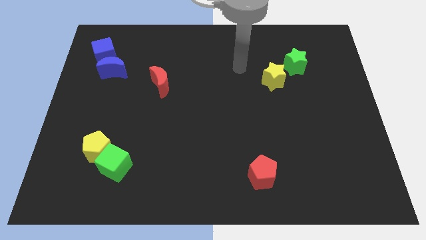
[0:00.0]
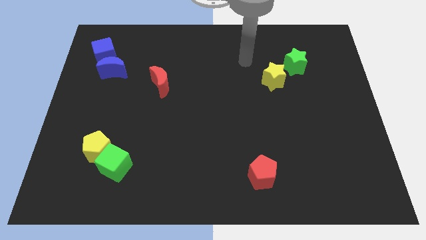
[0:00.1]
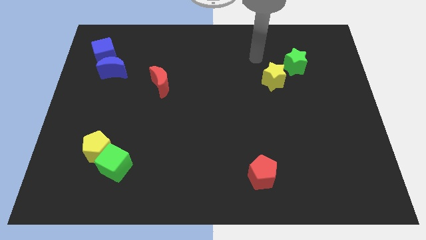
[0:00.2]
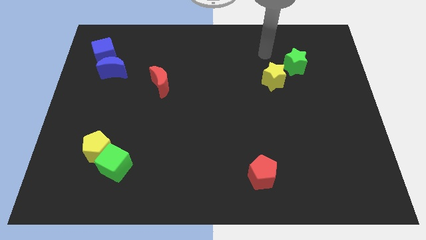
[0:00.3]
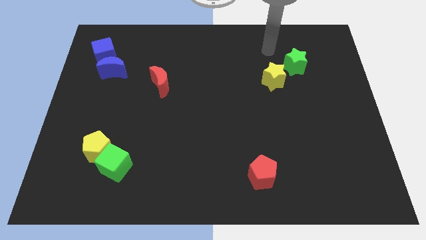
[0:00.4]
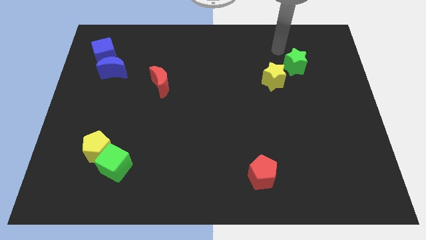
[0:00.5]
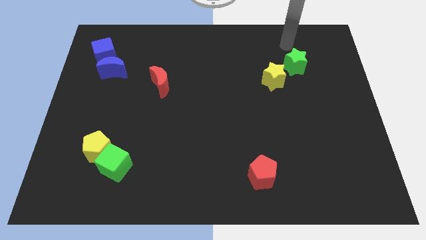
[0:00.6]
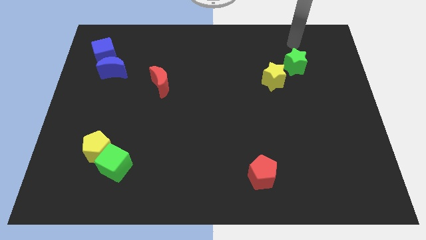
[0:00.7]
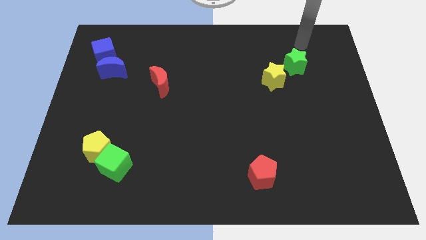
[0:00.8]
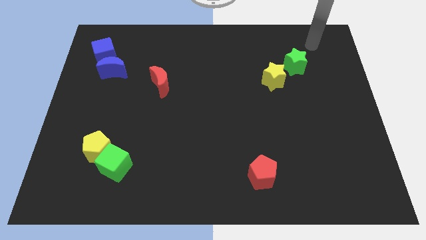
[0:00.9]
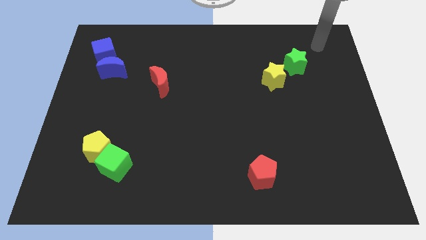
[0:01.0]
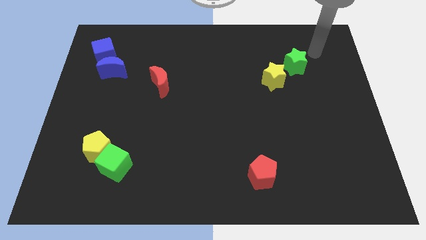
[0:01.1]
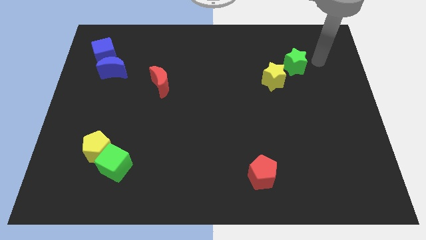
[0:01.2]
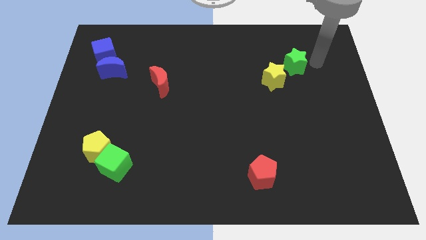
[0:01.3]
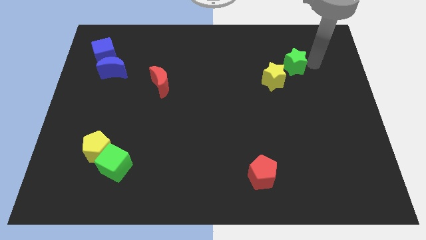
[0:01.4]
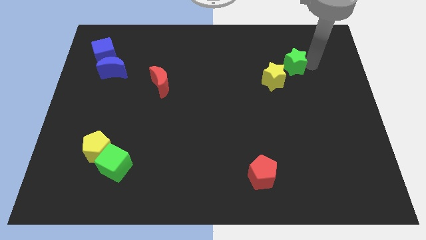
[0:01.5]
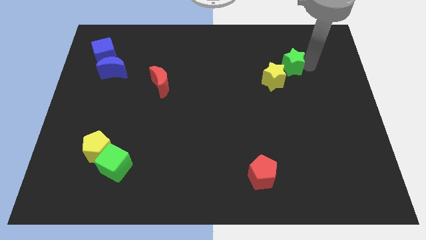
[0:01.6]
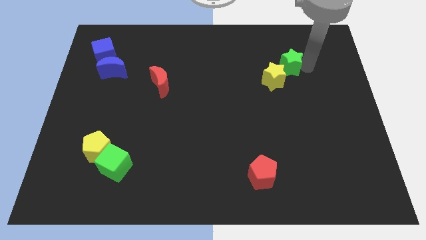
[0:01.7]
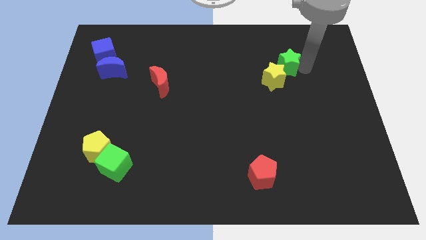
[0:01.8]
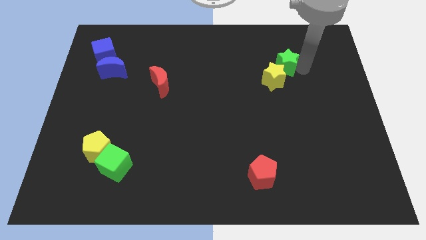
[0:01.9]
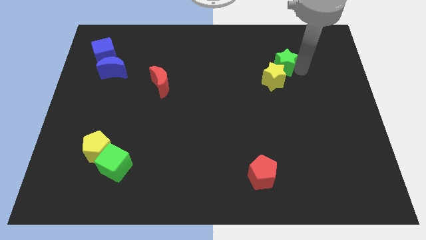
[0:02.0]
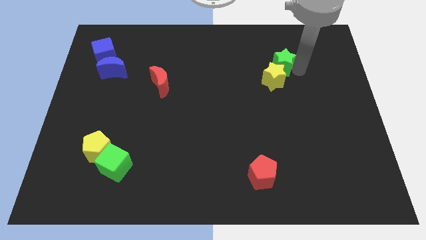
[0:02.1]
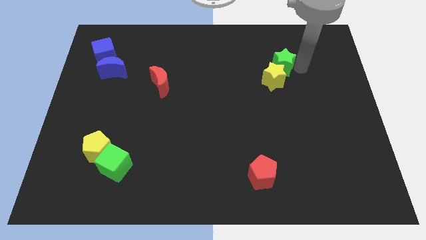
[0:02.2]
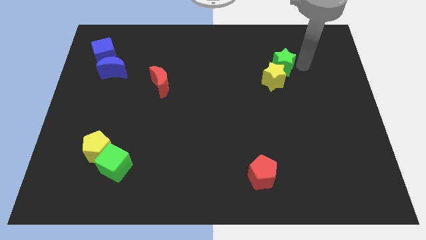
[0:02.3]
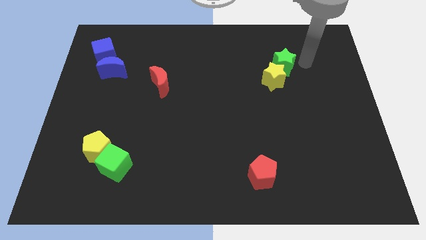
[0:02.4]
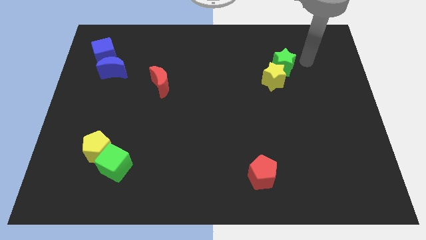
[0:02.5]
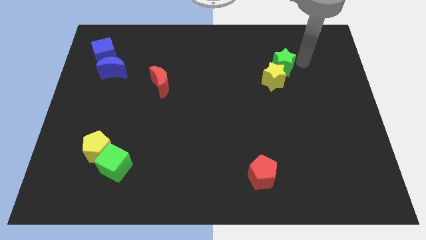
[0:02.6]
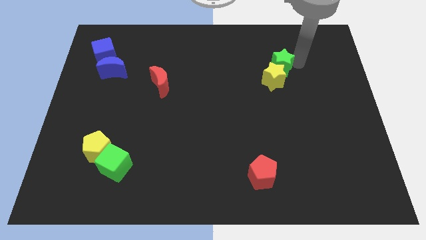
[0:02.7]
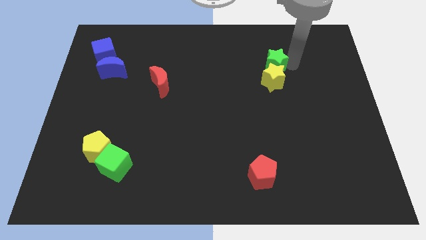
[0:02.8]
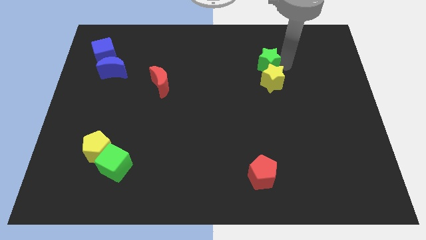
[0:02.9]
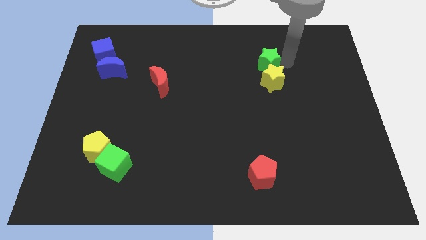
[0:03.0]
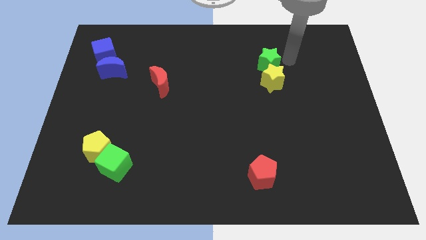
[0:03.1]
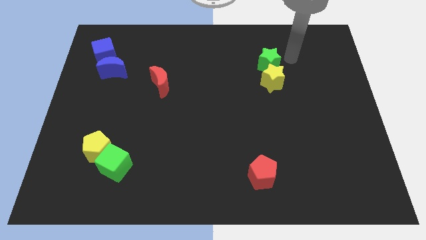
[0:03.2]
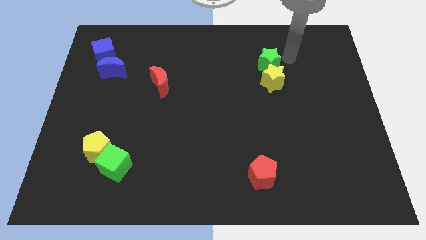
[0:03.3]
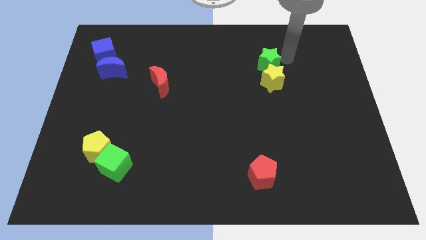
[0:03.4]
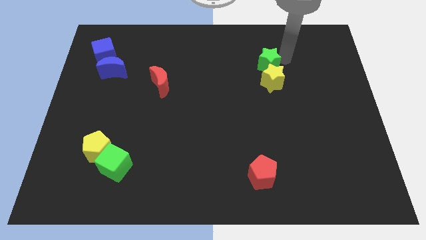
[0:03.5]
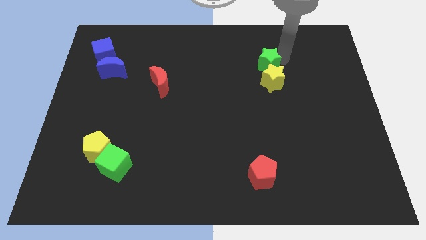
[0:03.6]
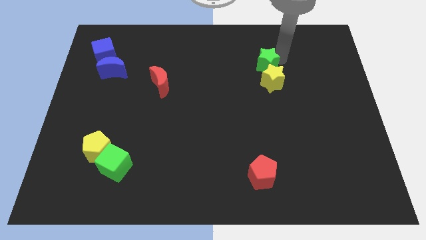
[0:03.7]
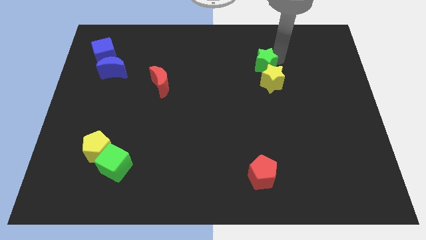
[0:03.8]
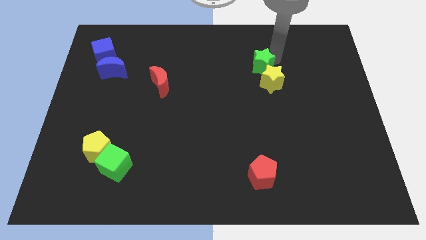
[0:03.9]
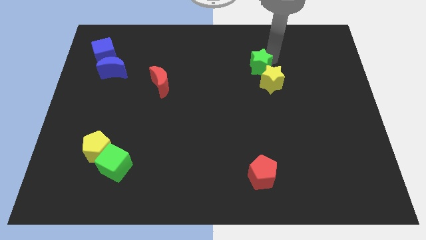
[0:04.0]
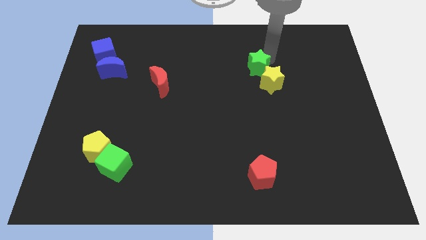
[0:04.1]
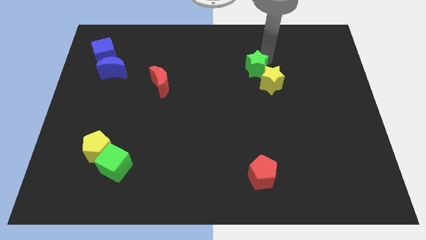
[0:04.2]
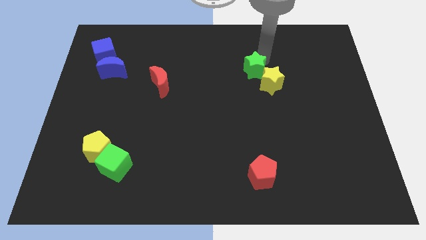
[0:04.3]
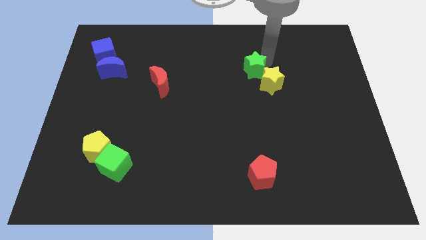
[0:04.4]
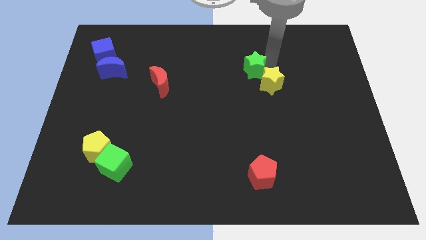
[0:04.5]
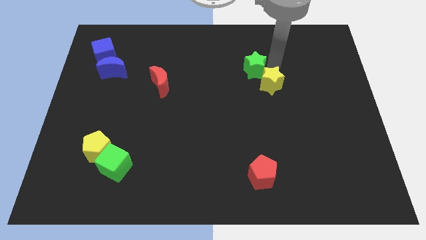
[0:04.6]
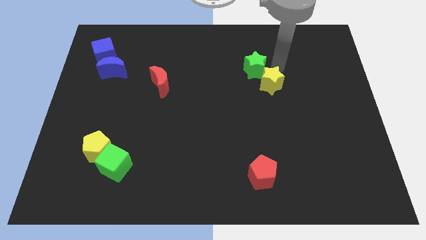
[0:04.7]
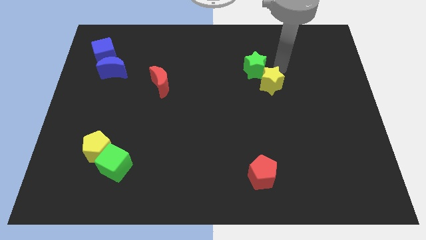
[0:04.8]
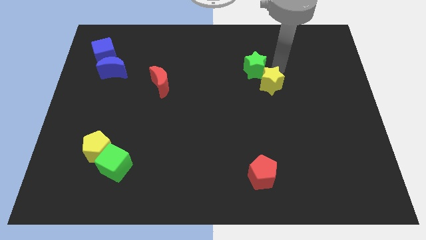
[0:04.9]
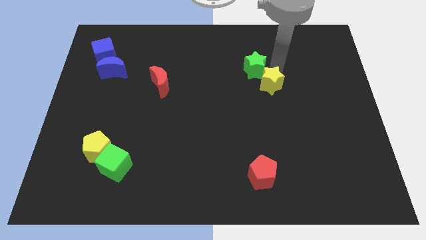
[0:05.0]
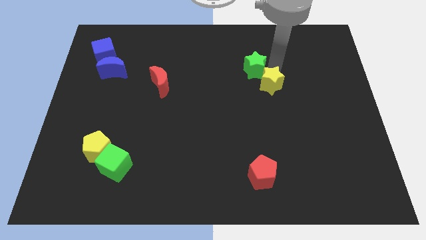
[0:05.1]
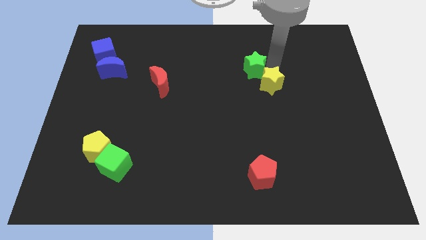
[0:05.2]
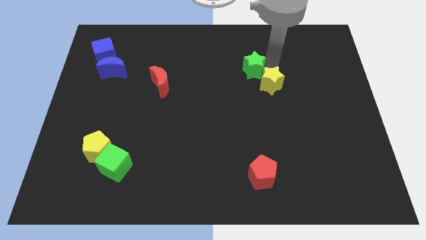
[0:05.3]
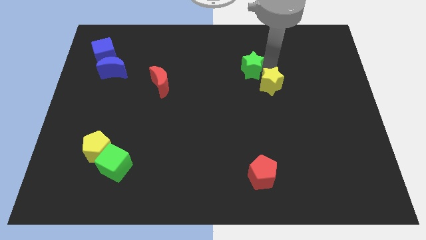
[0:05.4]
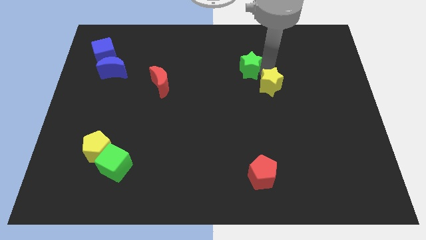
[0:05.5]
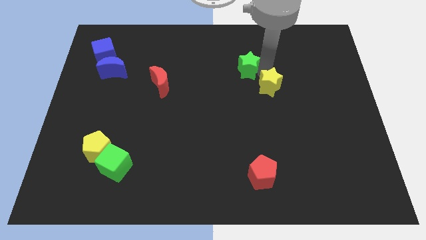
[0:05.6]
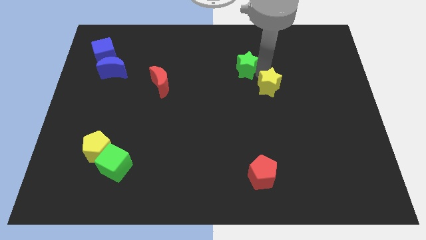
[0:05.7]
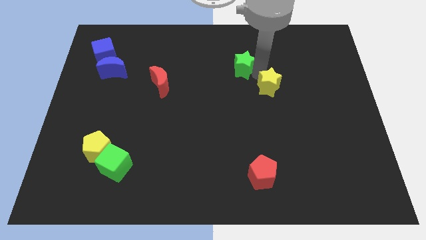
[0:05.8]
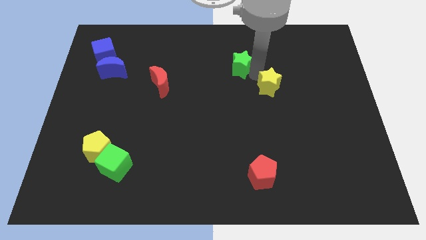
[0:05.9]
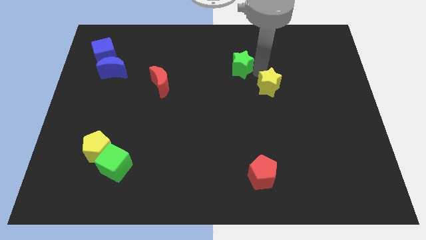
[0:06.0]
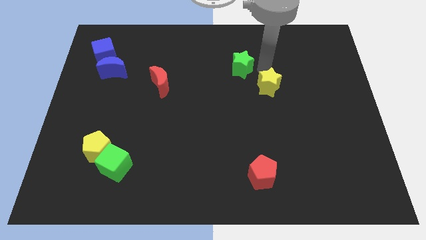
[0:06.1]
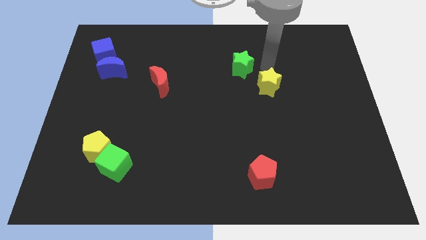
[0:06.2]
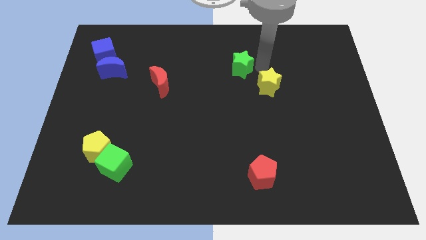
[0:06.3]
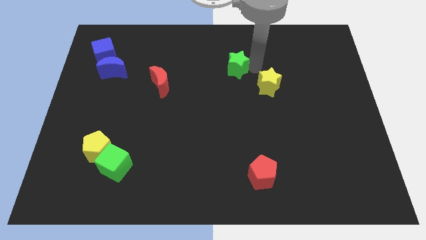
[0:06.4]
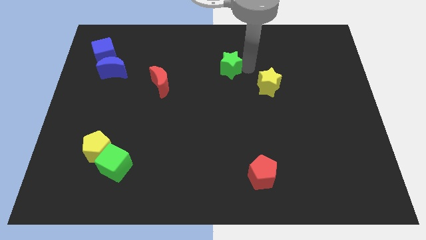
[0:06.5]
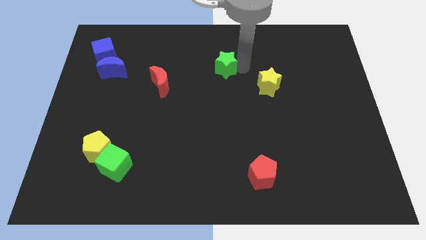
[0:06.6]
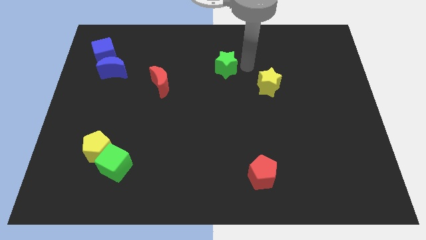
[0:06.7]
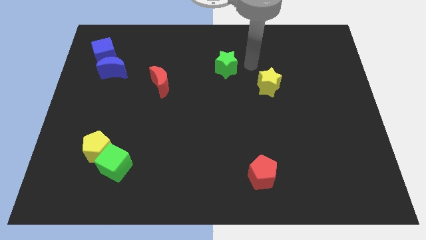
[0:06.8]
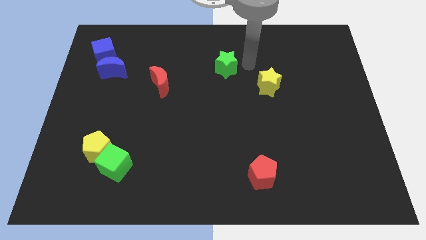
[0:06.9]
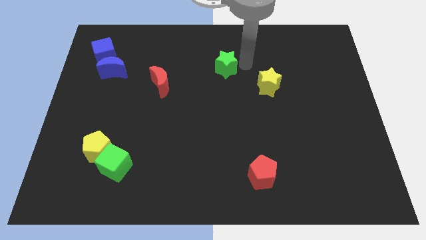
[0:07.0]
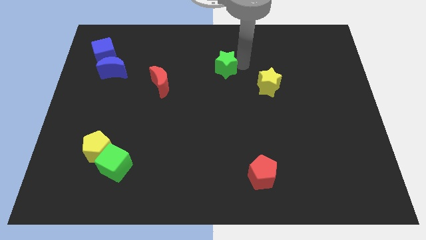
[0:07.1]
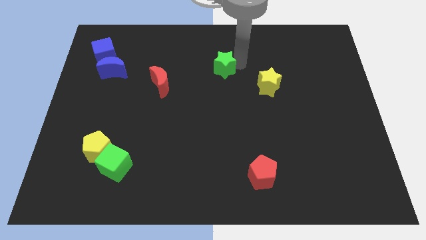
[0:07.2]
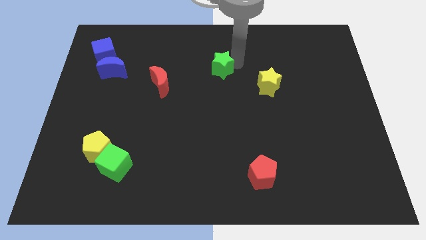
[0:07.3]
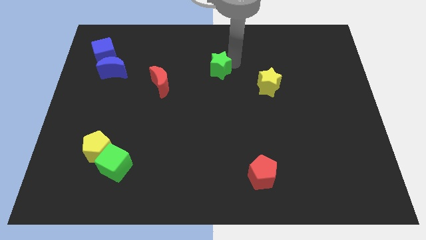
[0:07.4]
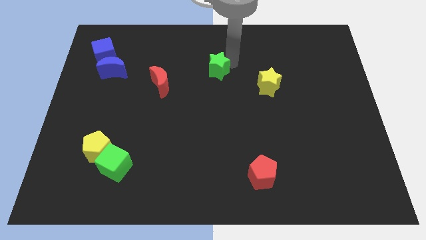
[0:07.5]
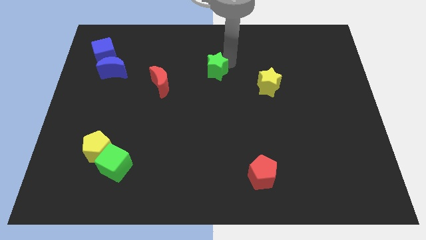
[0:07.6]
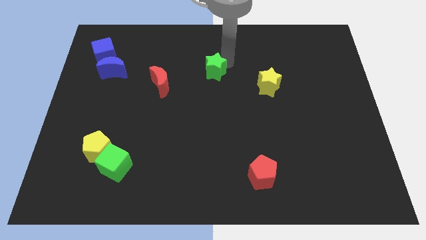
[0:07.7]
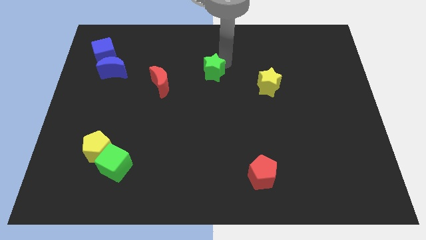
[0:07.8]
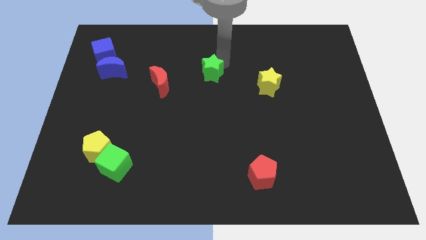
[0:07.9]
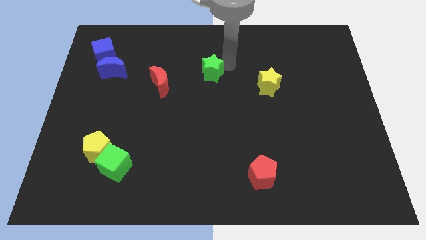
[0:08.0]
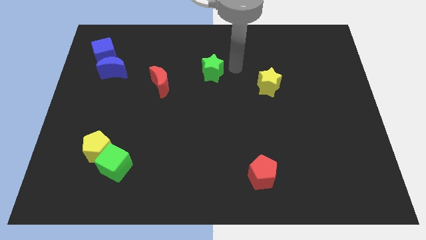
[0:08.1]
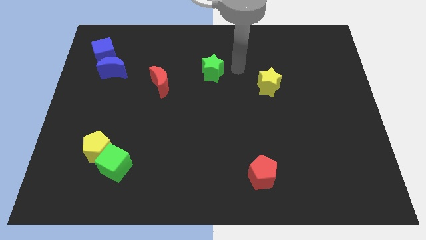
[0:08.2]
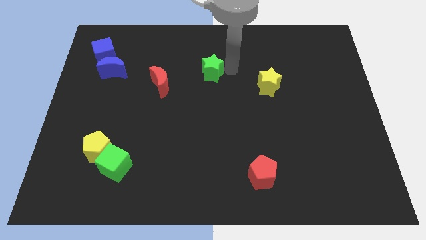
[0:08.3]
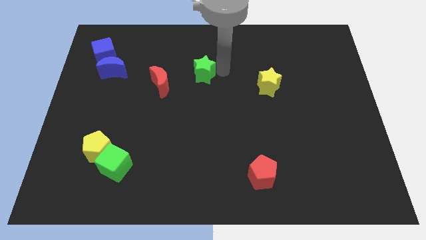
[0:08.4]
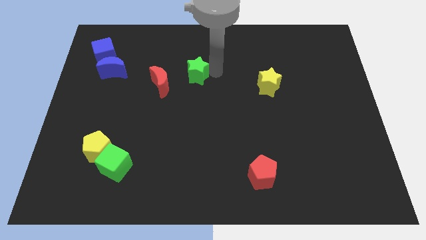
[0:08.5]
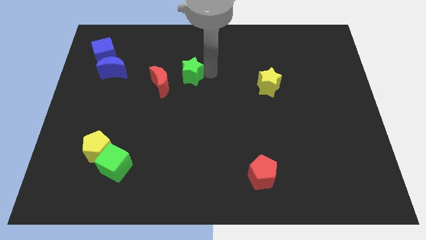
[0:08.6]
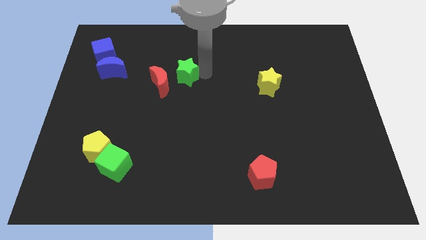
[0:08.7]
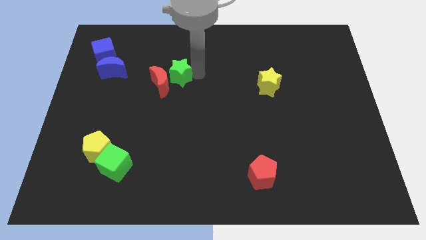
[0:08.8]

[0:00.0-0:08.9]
slide the green star towards the red moon
